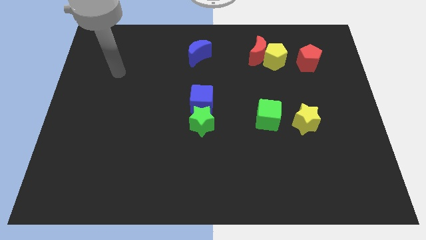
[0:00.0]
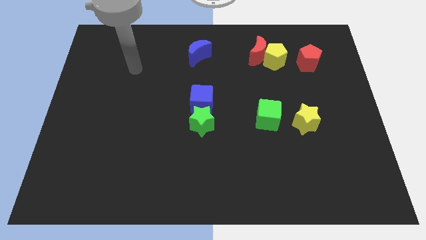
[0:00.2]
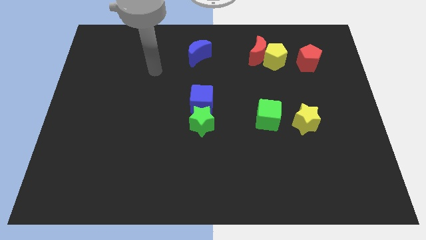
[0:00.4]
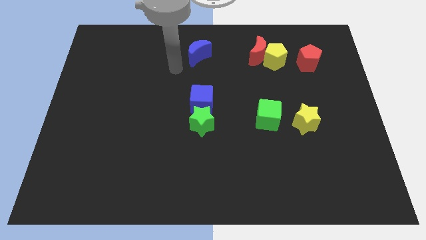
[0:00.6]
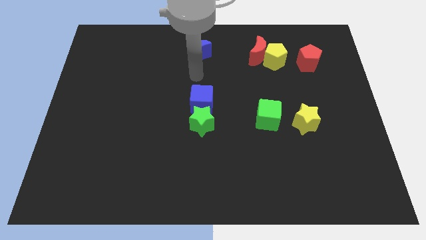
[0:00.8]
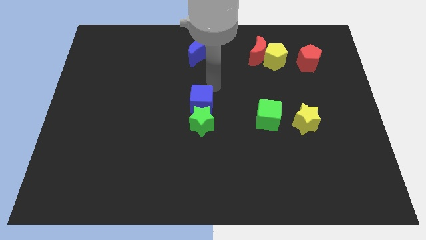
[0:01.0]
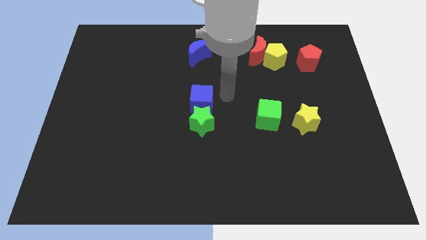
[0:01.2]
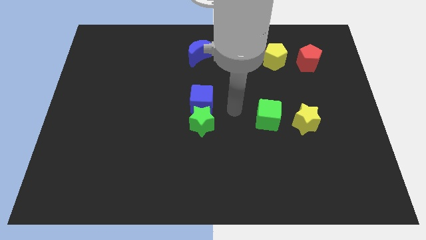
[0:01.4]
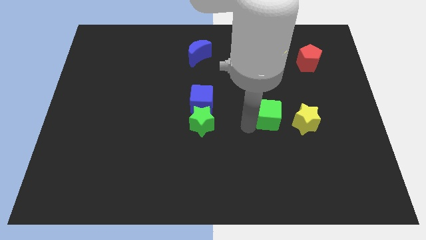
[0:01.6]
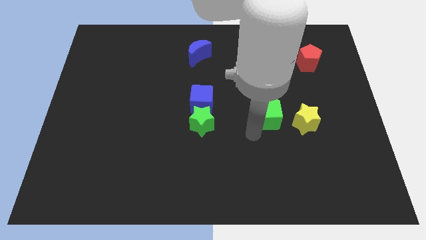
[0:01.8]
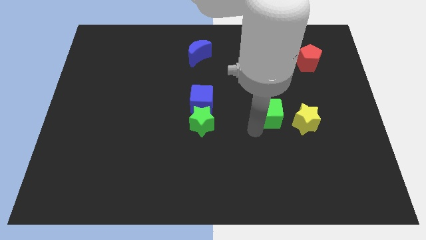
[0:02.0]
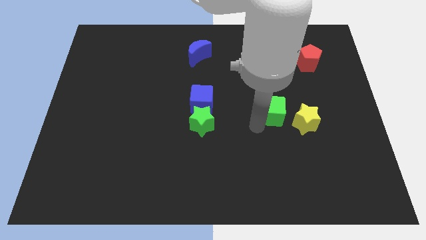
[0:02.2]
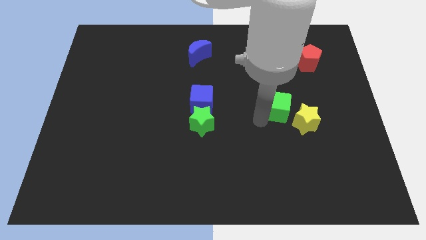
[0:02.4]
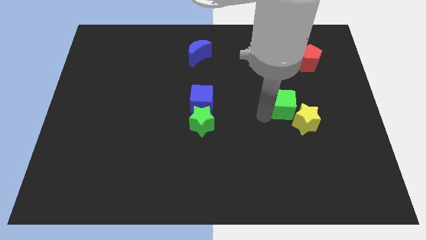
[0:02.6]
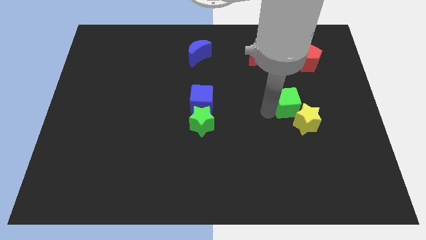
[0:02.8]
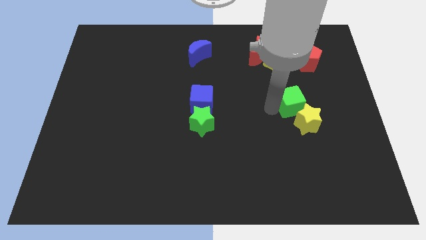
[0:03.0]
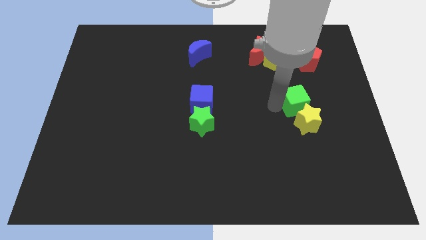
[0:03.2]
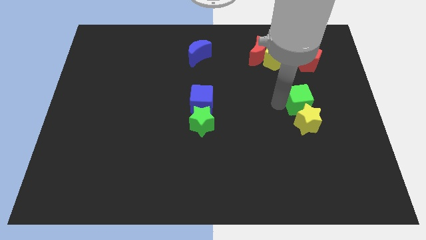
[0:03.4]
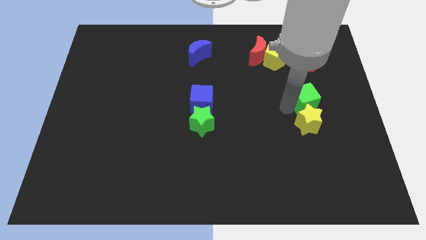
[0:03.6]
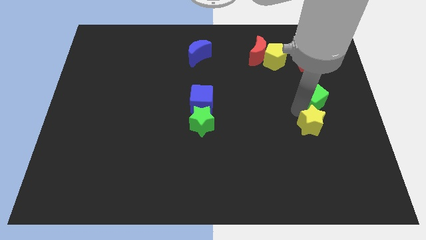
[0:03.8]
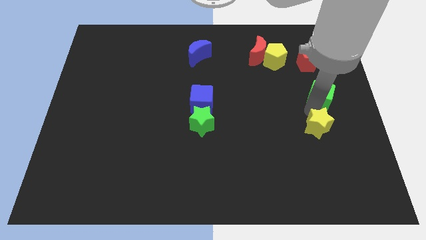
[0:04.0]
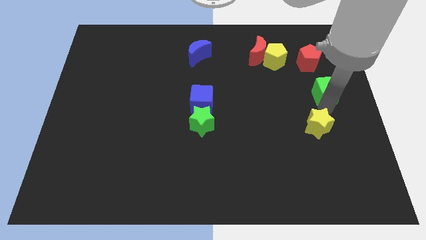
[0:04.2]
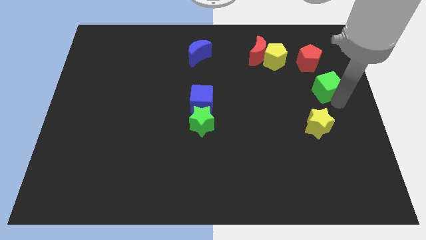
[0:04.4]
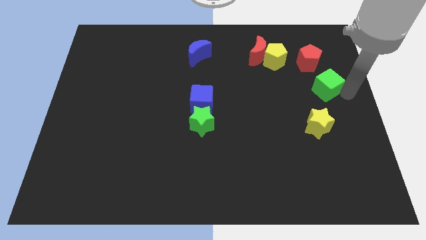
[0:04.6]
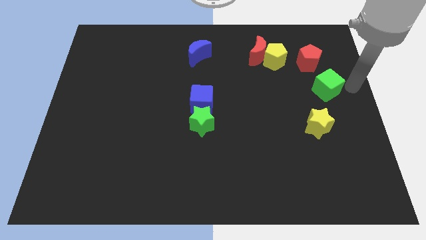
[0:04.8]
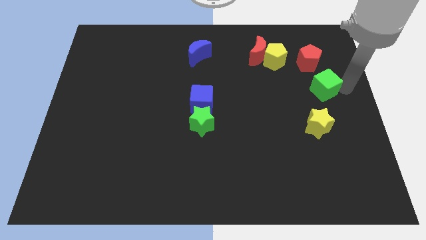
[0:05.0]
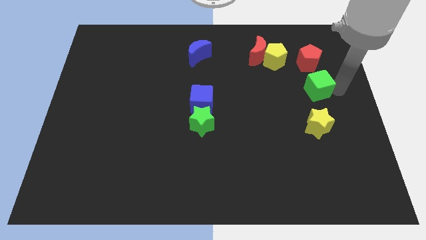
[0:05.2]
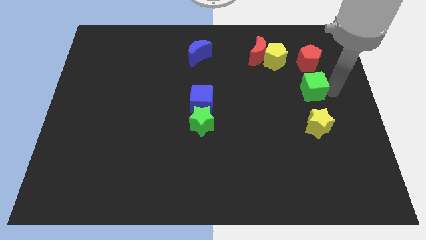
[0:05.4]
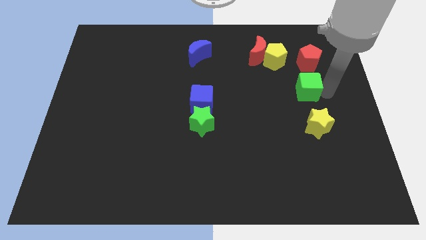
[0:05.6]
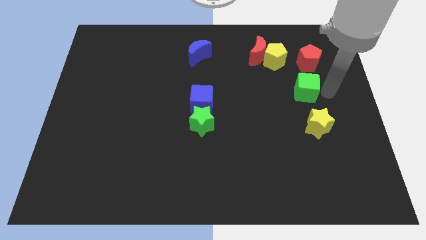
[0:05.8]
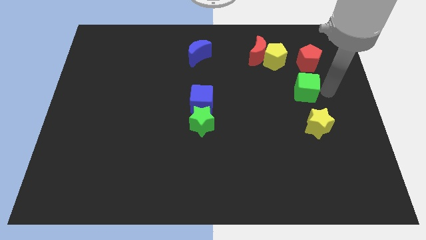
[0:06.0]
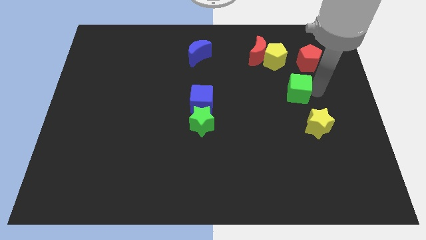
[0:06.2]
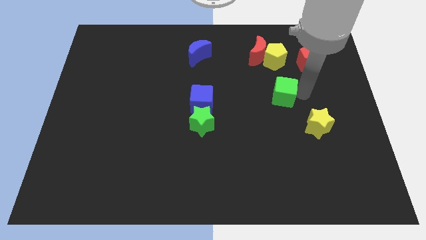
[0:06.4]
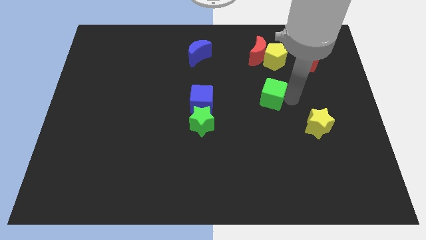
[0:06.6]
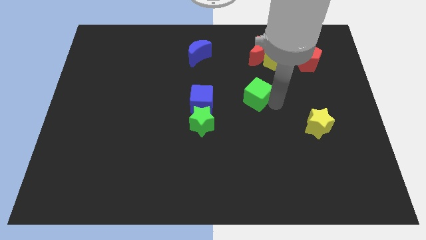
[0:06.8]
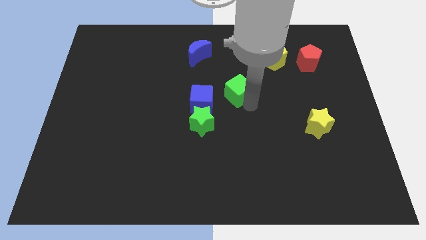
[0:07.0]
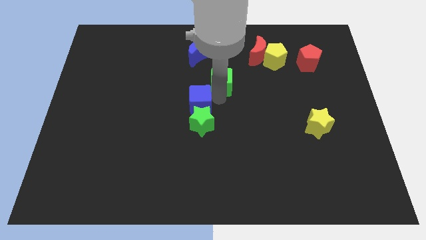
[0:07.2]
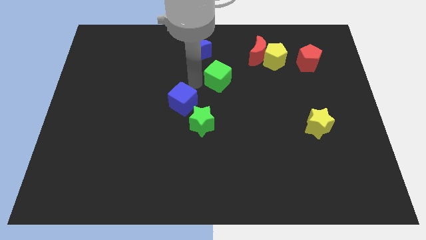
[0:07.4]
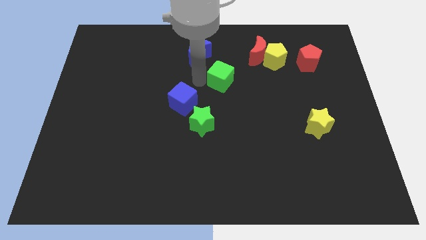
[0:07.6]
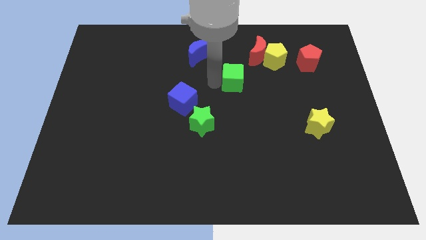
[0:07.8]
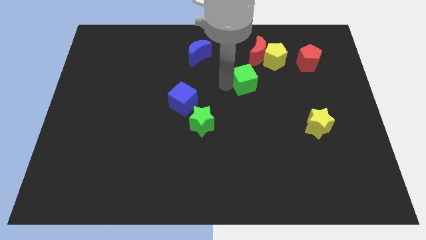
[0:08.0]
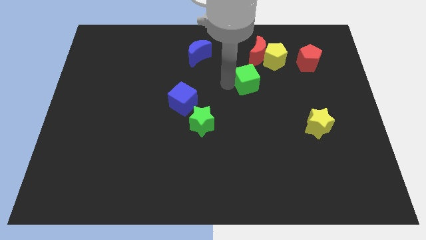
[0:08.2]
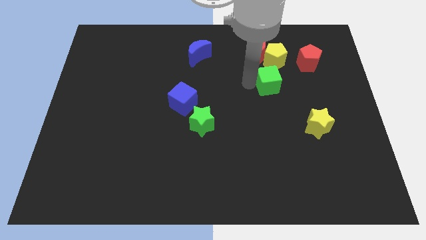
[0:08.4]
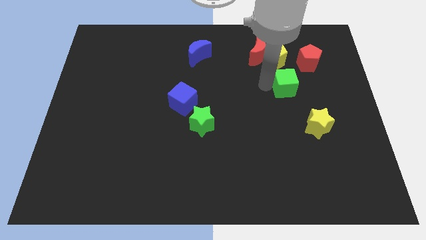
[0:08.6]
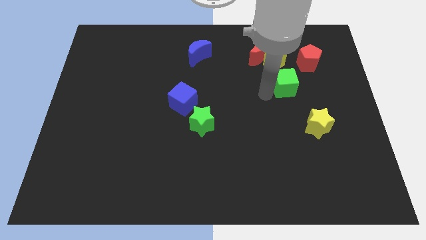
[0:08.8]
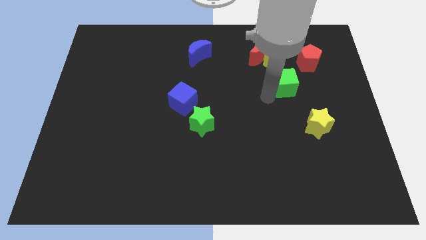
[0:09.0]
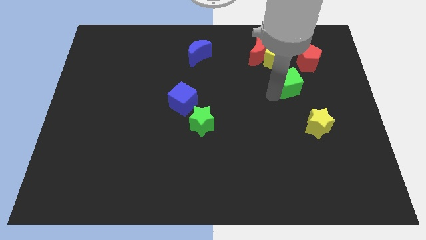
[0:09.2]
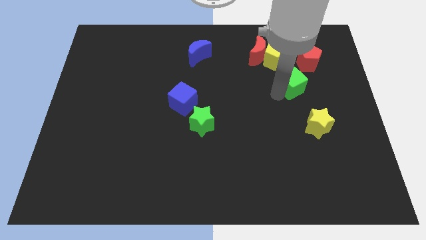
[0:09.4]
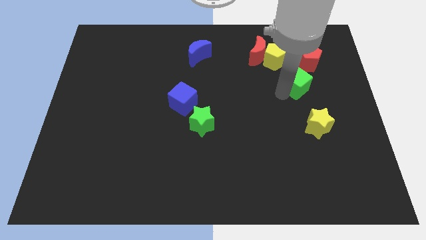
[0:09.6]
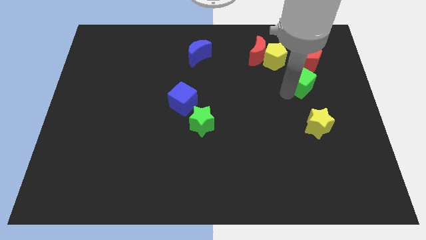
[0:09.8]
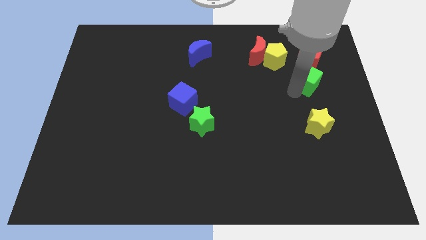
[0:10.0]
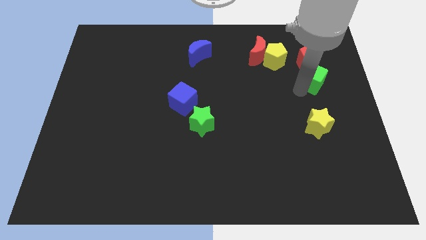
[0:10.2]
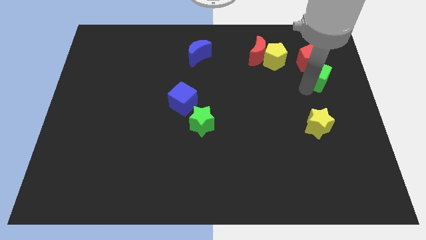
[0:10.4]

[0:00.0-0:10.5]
move the green cube next to the red pentagon

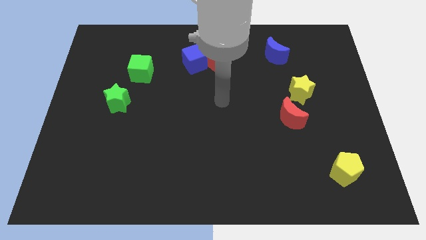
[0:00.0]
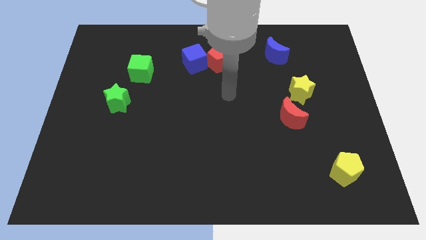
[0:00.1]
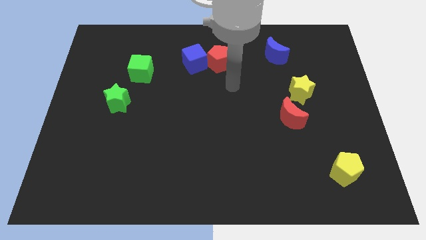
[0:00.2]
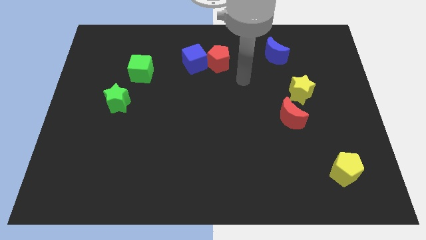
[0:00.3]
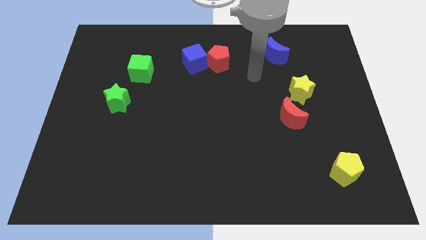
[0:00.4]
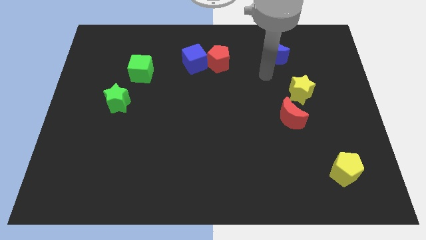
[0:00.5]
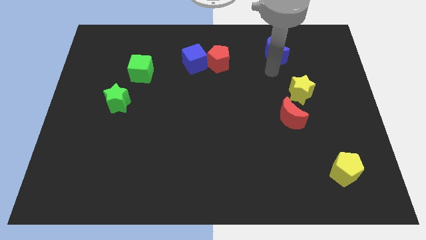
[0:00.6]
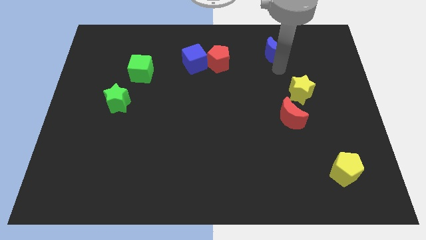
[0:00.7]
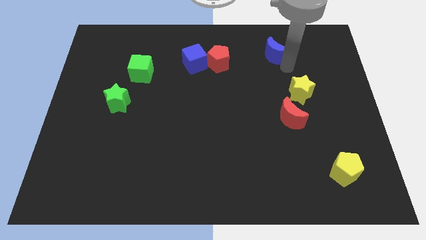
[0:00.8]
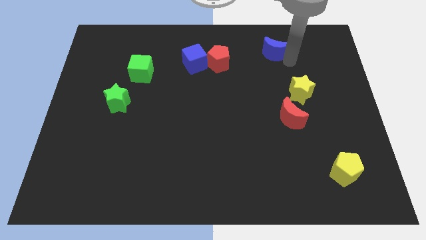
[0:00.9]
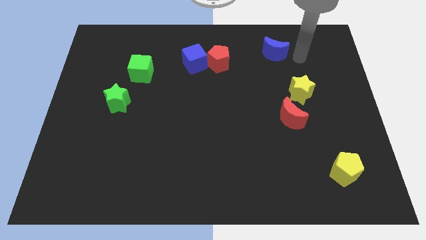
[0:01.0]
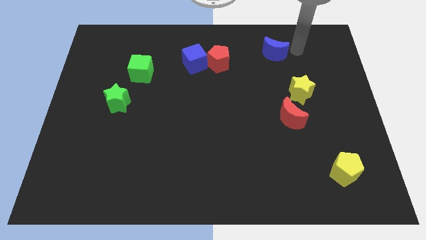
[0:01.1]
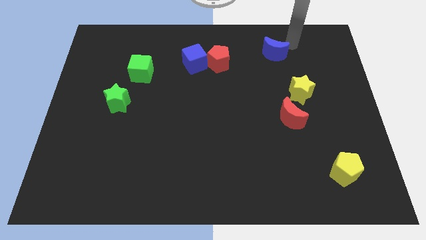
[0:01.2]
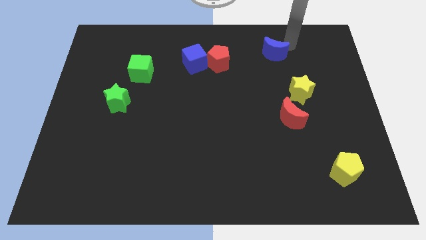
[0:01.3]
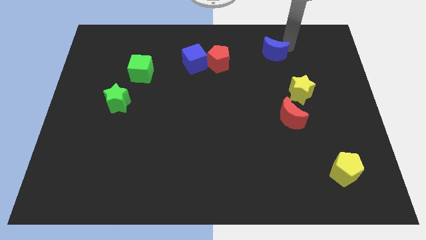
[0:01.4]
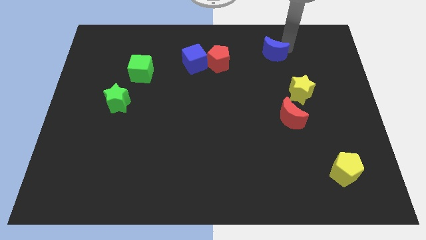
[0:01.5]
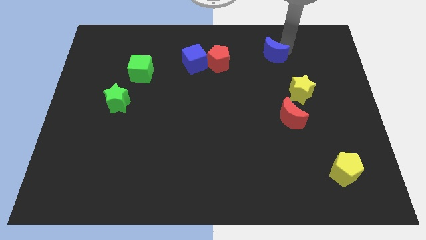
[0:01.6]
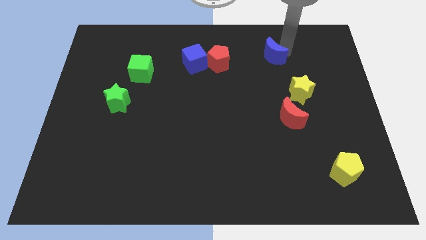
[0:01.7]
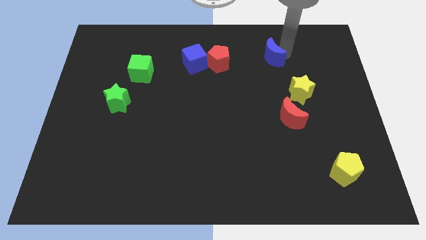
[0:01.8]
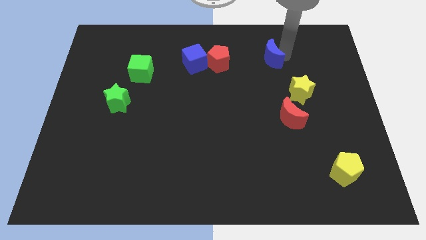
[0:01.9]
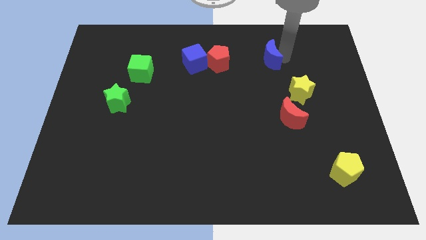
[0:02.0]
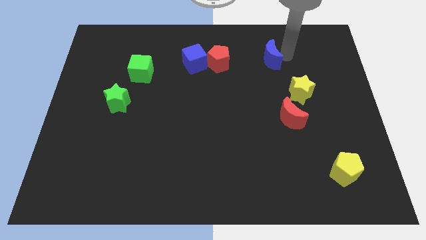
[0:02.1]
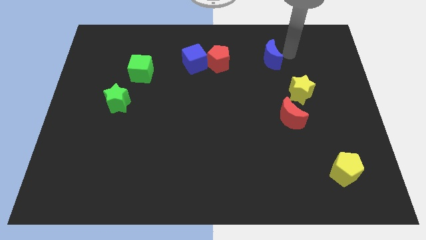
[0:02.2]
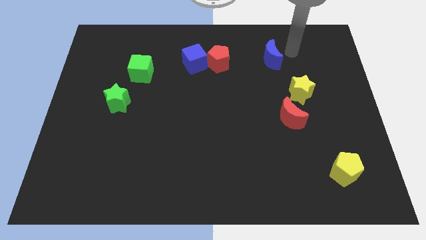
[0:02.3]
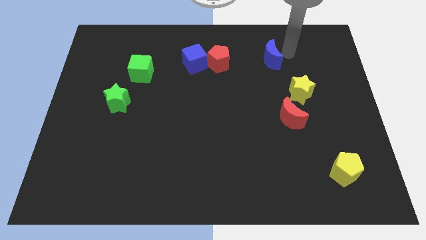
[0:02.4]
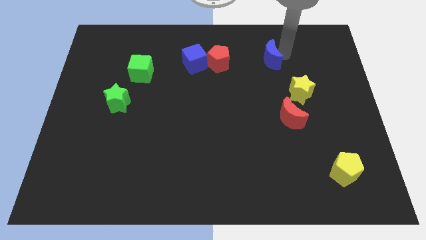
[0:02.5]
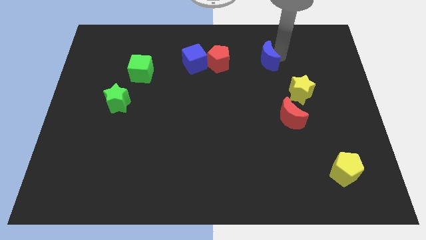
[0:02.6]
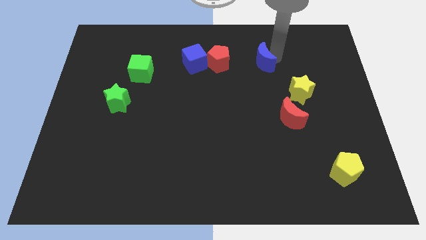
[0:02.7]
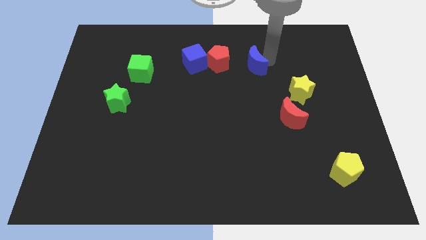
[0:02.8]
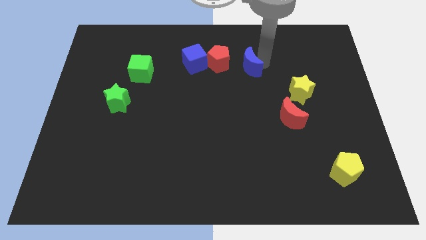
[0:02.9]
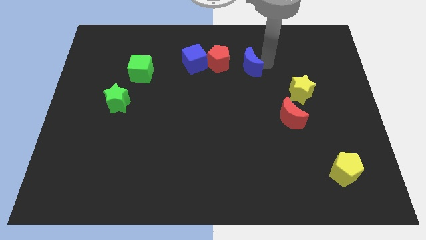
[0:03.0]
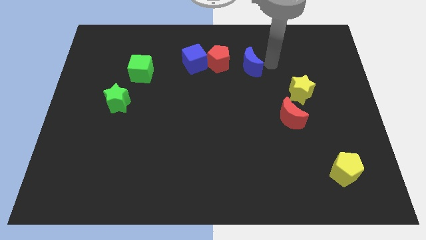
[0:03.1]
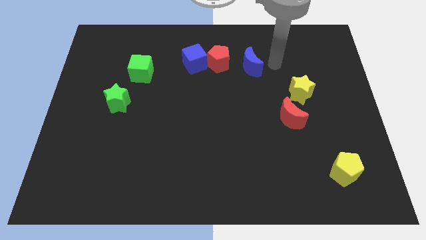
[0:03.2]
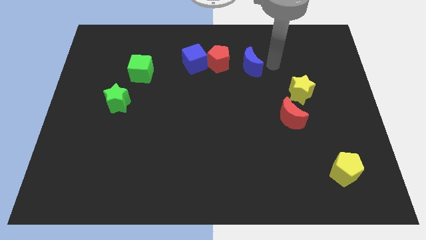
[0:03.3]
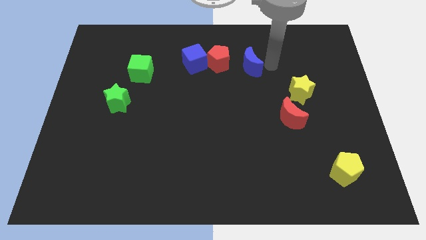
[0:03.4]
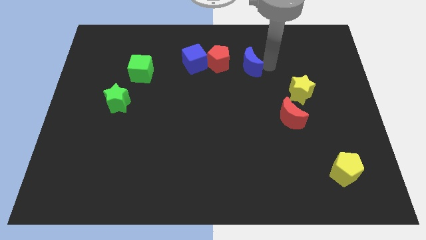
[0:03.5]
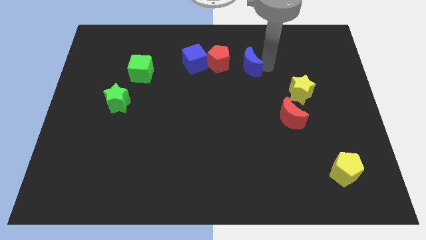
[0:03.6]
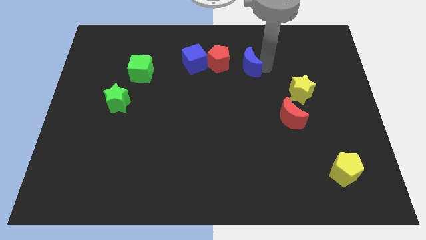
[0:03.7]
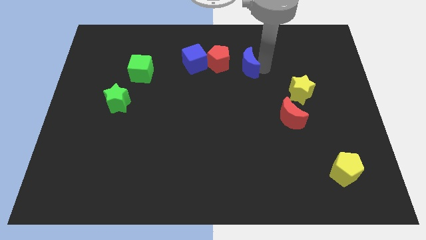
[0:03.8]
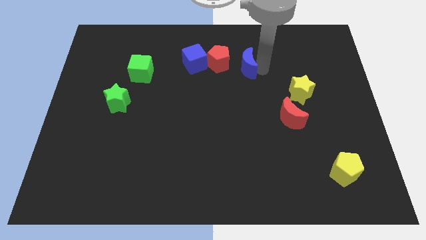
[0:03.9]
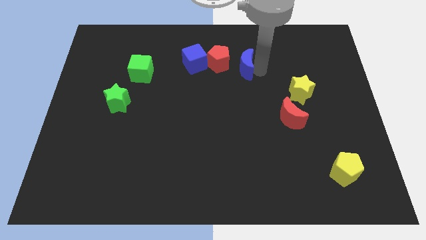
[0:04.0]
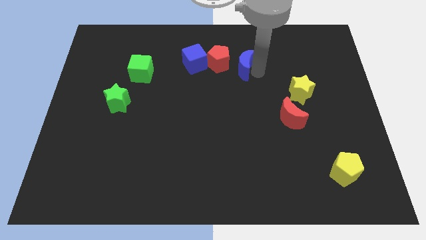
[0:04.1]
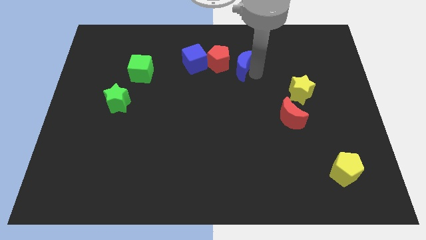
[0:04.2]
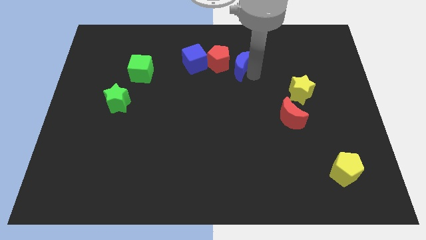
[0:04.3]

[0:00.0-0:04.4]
push the blue moon next to the red pentagon
